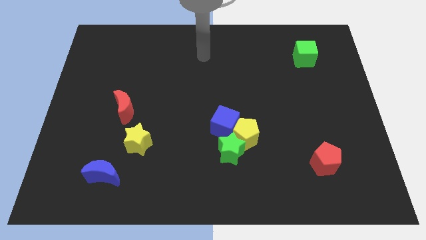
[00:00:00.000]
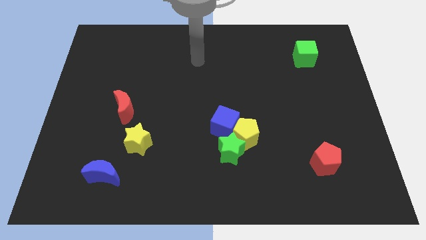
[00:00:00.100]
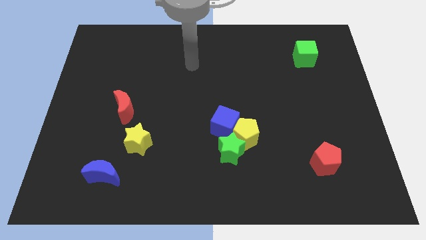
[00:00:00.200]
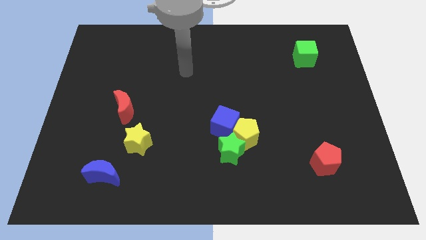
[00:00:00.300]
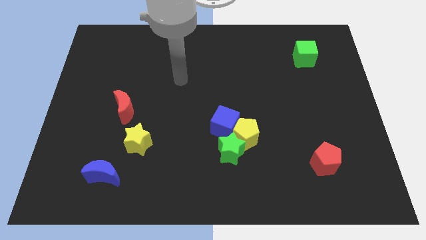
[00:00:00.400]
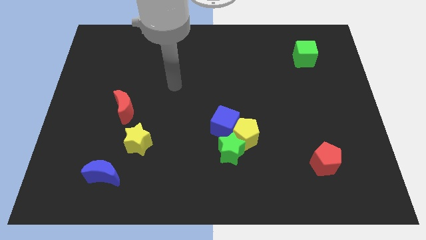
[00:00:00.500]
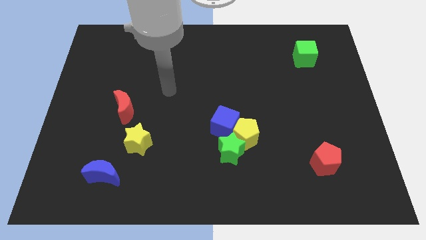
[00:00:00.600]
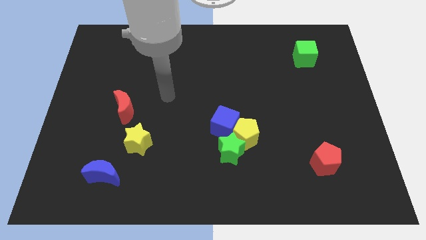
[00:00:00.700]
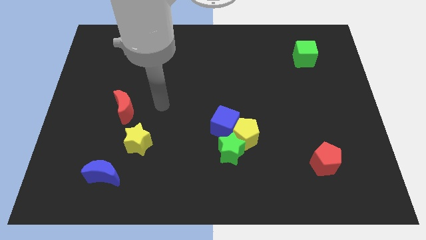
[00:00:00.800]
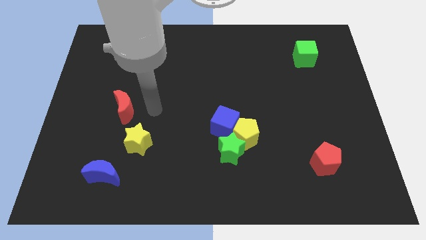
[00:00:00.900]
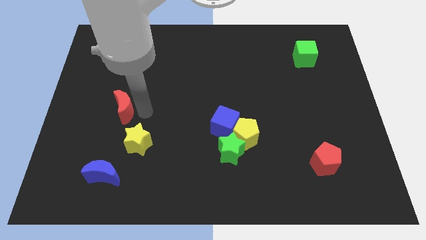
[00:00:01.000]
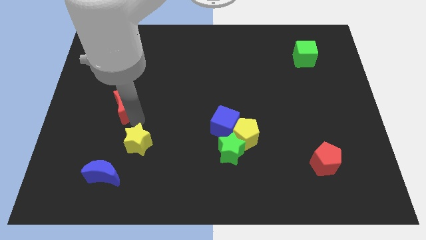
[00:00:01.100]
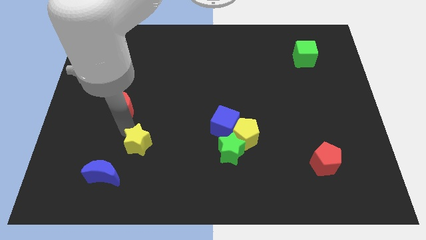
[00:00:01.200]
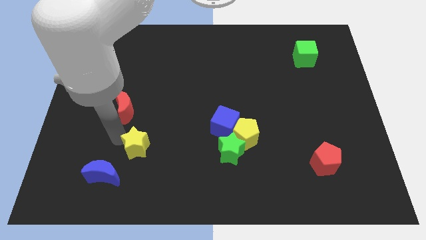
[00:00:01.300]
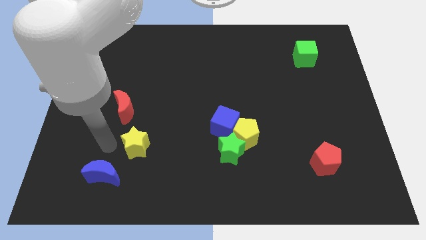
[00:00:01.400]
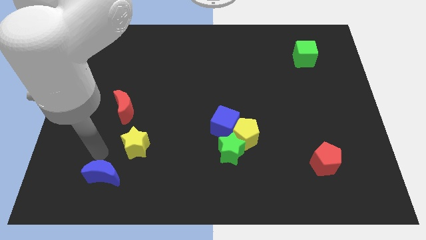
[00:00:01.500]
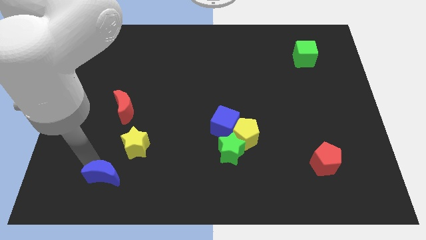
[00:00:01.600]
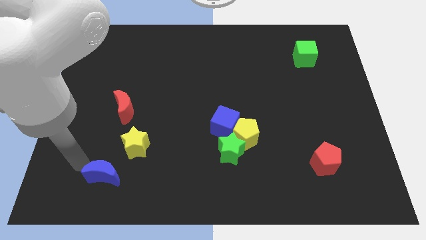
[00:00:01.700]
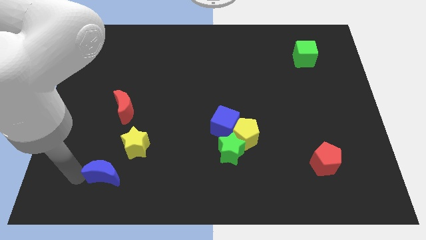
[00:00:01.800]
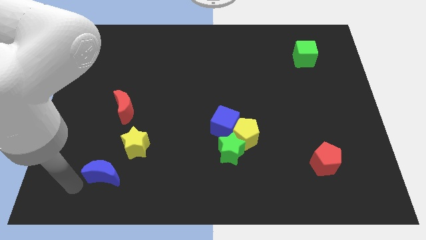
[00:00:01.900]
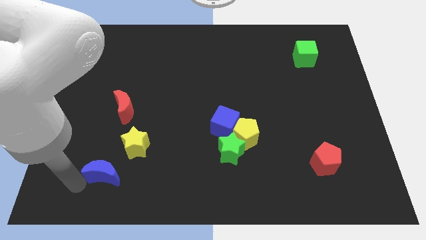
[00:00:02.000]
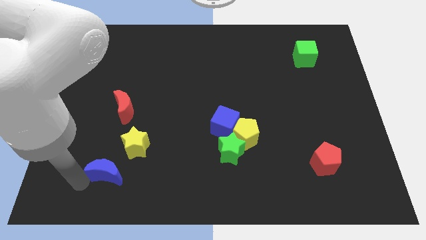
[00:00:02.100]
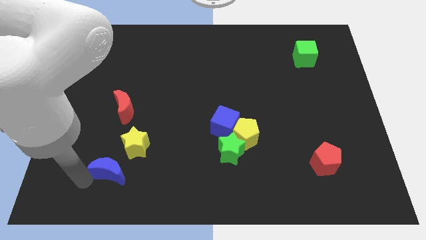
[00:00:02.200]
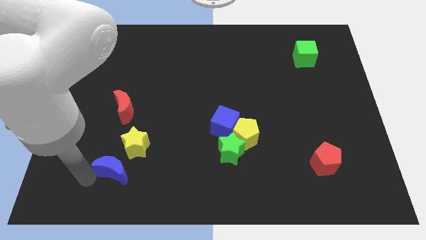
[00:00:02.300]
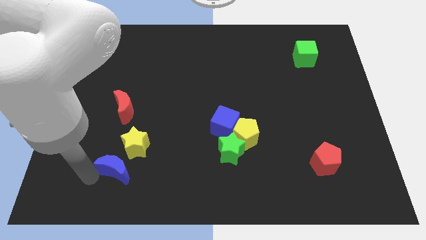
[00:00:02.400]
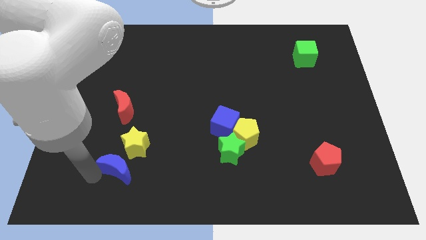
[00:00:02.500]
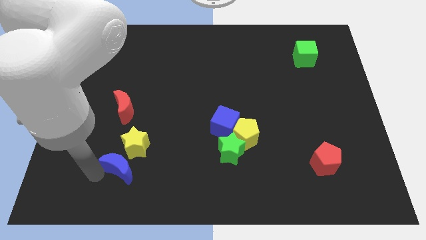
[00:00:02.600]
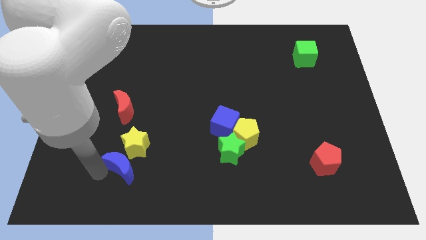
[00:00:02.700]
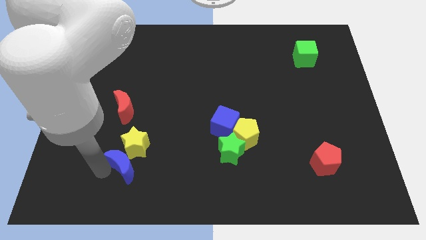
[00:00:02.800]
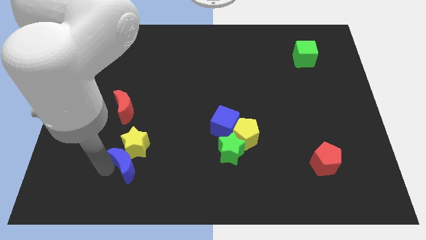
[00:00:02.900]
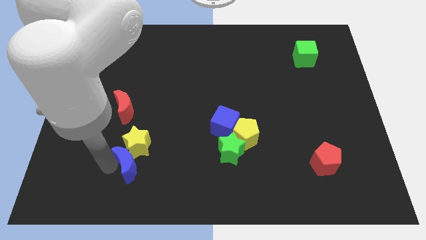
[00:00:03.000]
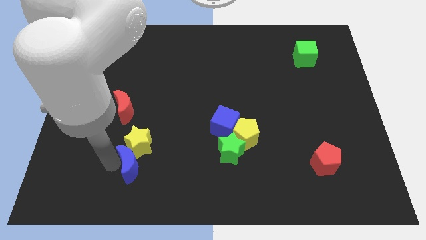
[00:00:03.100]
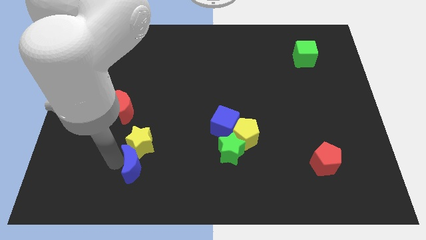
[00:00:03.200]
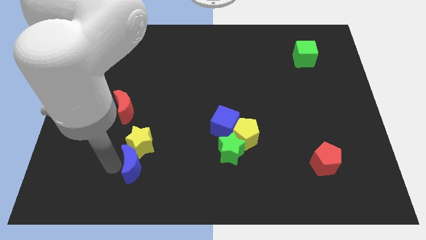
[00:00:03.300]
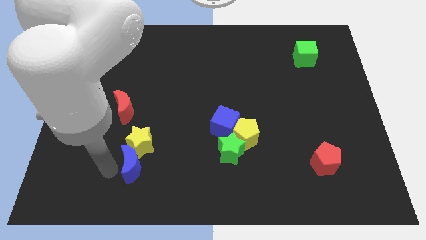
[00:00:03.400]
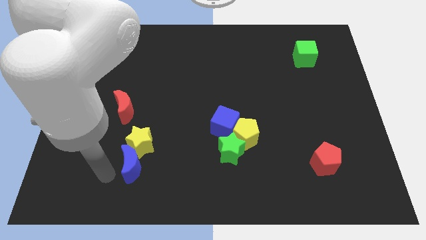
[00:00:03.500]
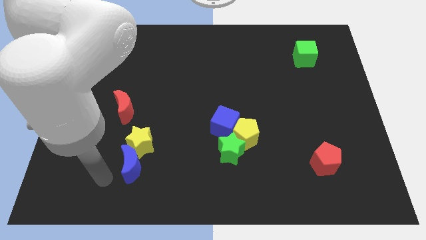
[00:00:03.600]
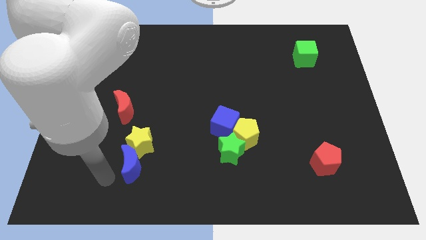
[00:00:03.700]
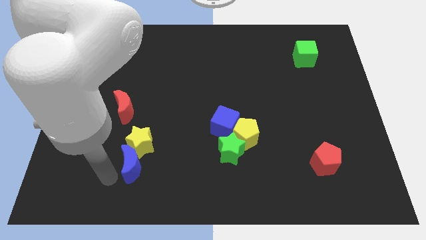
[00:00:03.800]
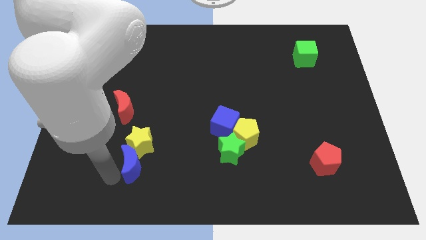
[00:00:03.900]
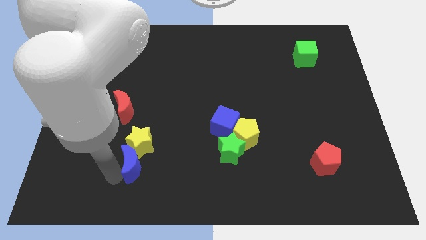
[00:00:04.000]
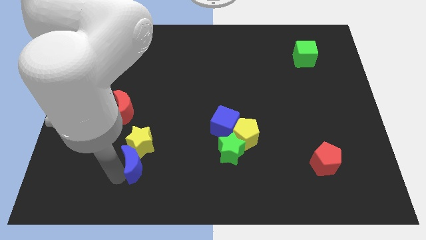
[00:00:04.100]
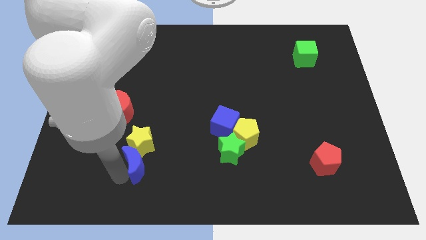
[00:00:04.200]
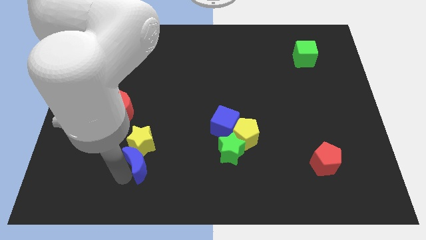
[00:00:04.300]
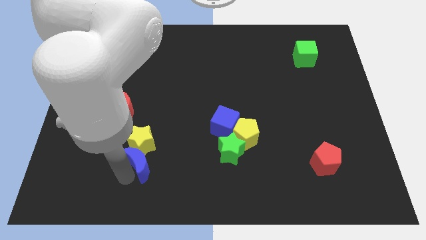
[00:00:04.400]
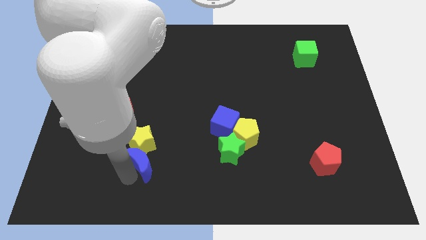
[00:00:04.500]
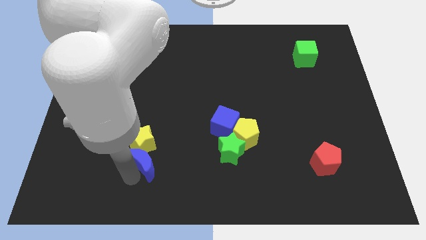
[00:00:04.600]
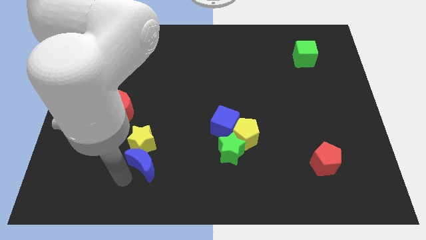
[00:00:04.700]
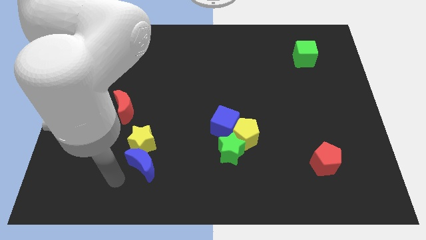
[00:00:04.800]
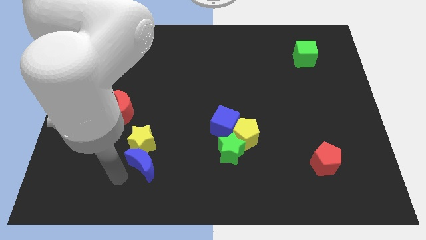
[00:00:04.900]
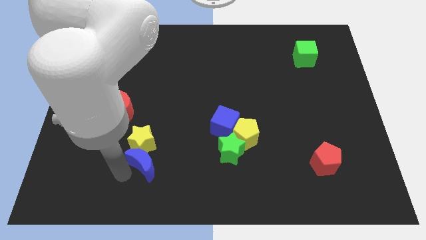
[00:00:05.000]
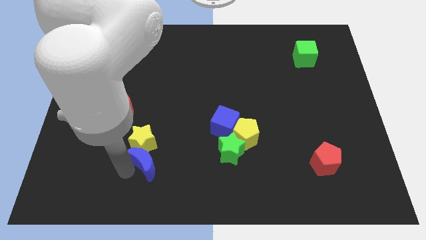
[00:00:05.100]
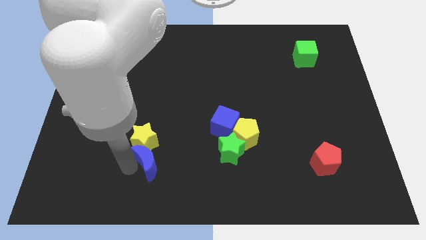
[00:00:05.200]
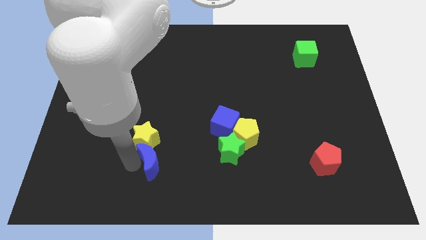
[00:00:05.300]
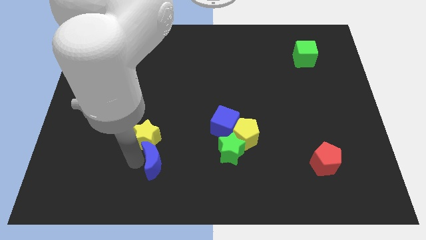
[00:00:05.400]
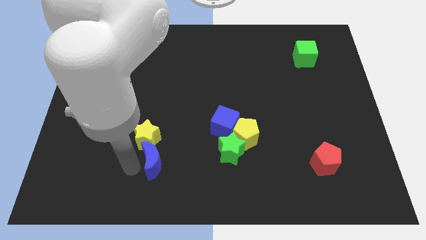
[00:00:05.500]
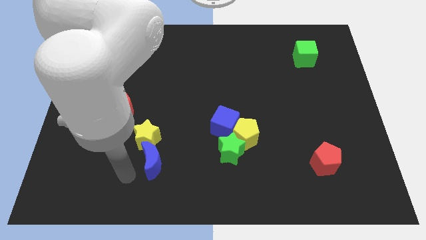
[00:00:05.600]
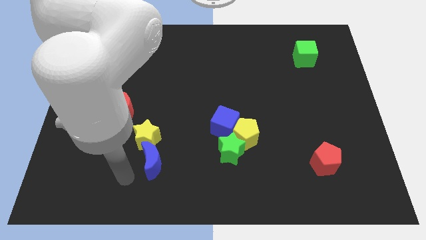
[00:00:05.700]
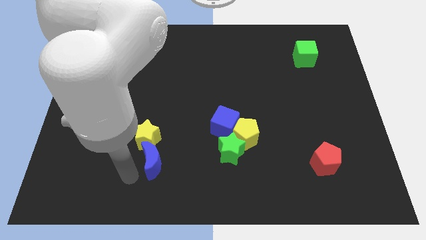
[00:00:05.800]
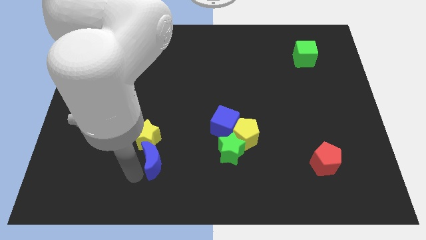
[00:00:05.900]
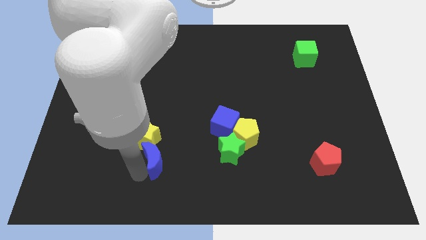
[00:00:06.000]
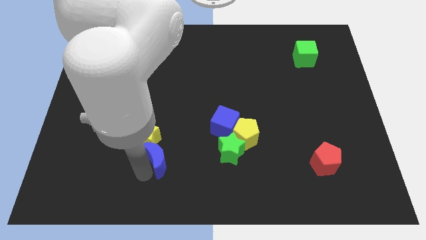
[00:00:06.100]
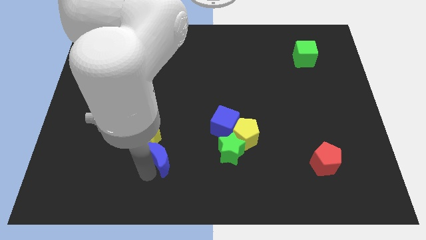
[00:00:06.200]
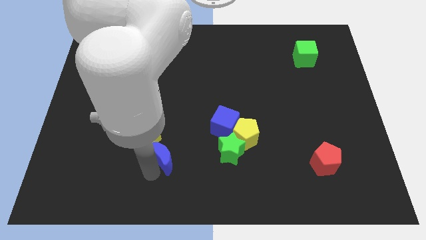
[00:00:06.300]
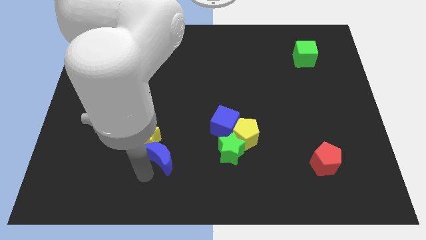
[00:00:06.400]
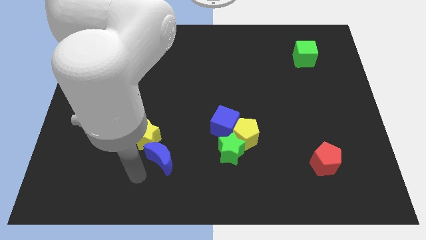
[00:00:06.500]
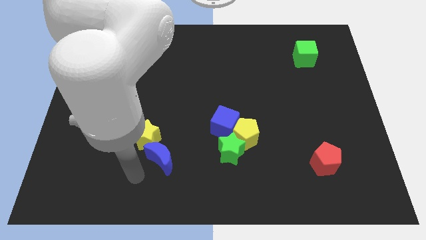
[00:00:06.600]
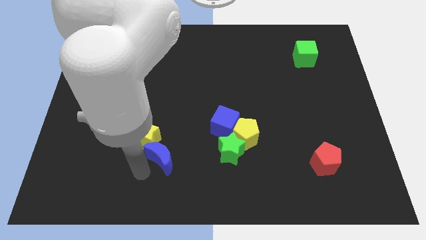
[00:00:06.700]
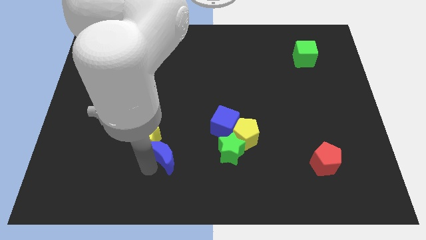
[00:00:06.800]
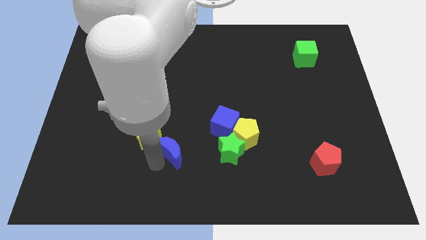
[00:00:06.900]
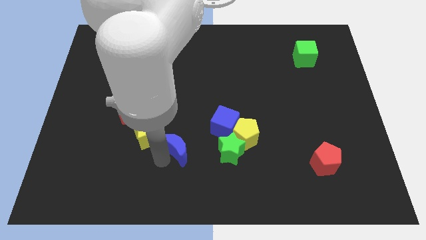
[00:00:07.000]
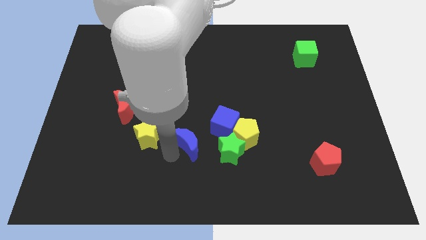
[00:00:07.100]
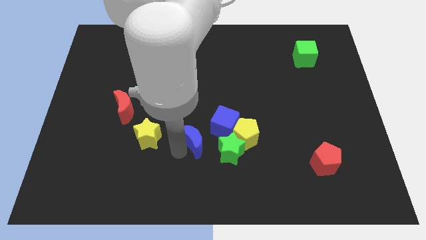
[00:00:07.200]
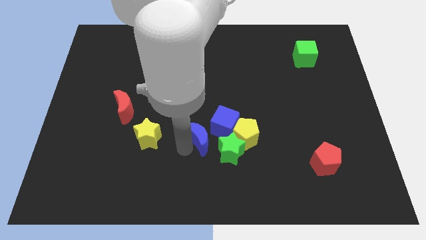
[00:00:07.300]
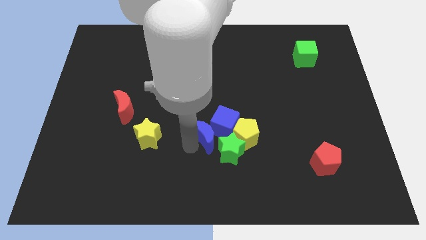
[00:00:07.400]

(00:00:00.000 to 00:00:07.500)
push the blue moon to the blue cube
